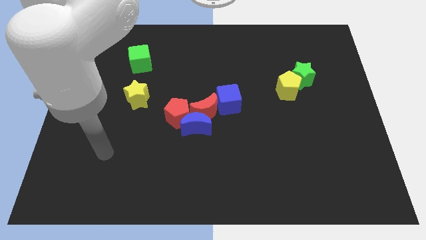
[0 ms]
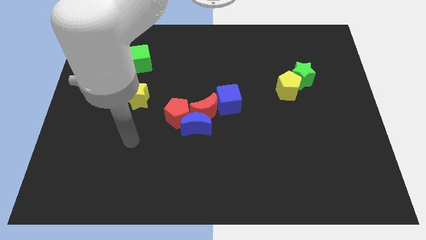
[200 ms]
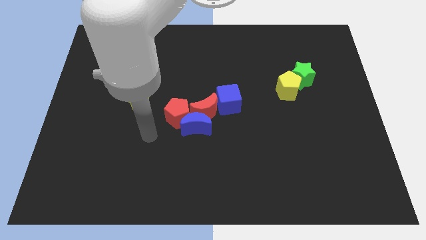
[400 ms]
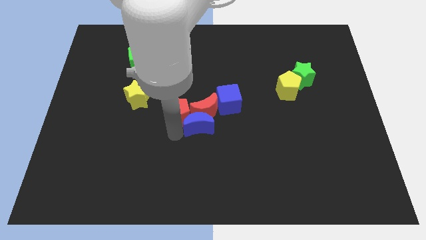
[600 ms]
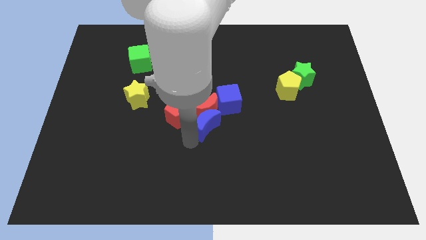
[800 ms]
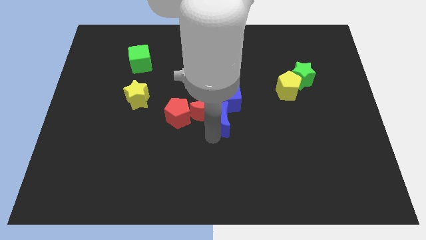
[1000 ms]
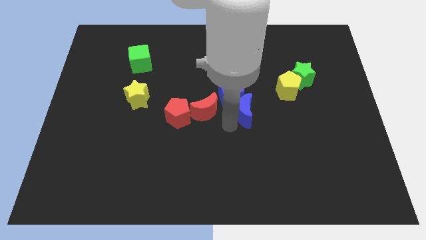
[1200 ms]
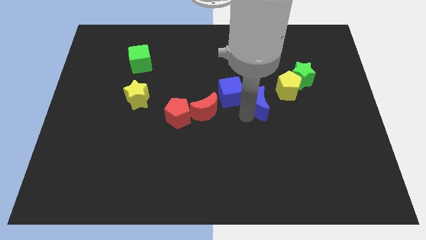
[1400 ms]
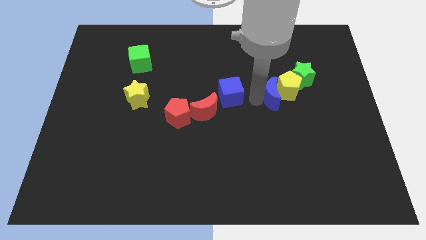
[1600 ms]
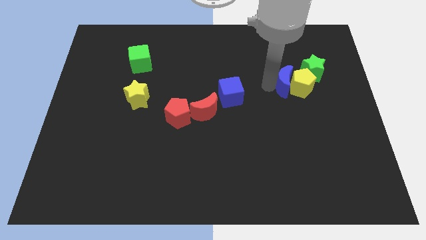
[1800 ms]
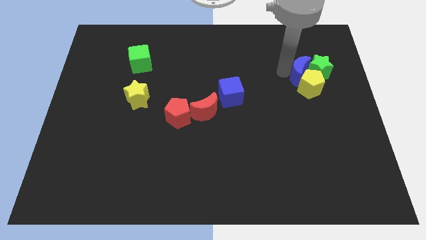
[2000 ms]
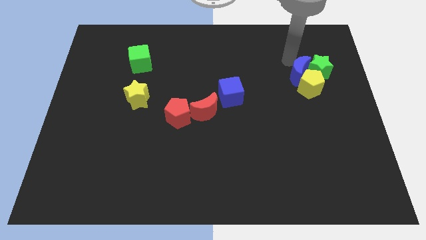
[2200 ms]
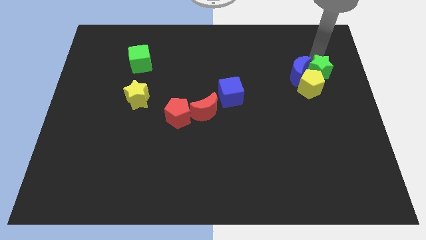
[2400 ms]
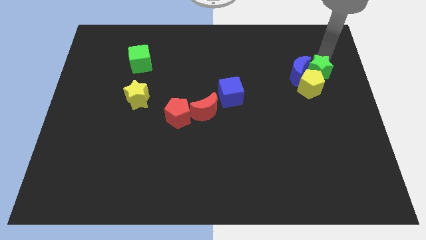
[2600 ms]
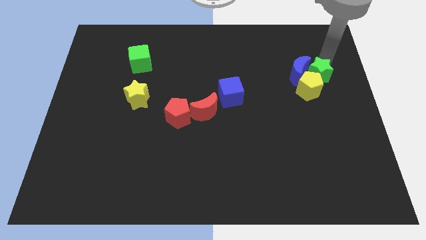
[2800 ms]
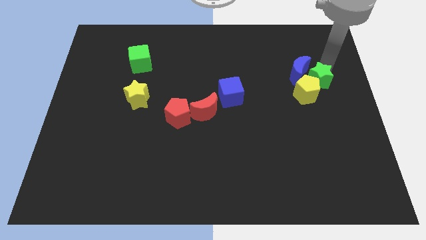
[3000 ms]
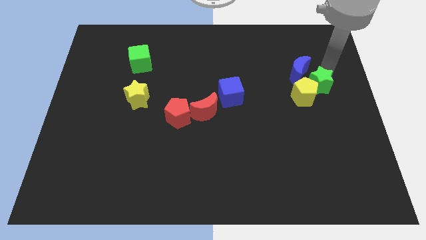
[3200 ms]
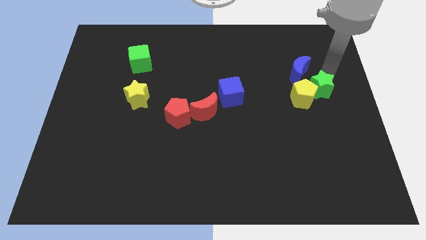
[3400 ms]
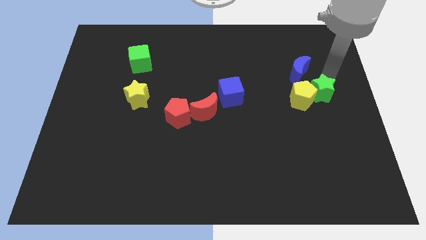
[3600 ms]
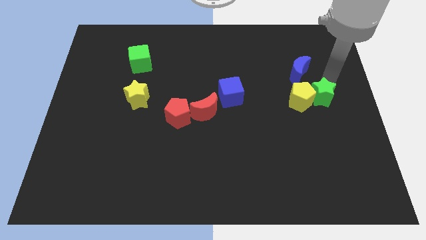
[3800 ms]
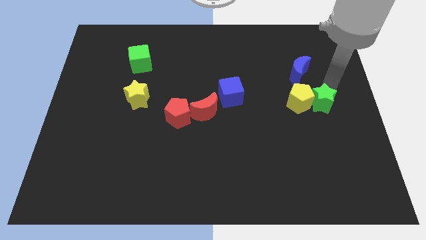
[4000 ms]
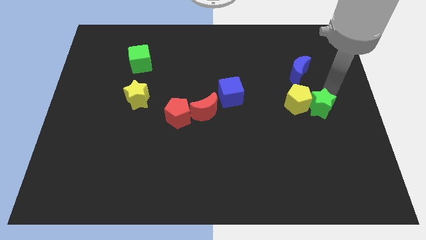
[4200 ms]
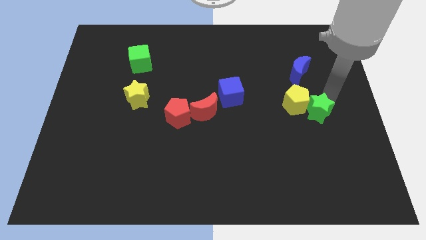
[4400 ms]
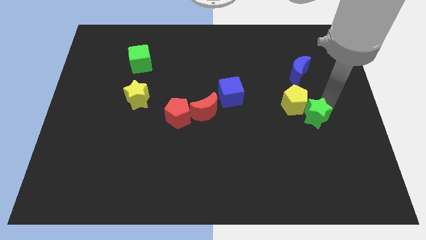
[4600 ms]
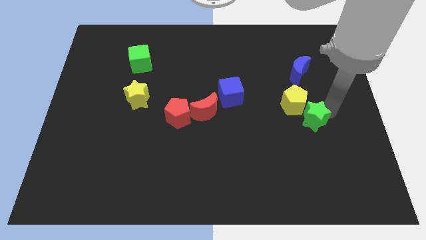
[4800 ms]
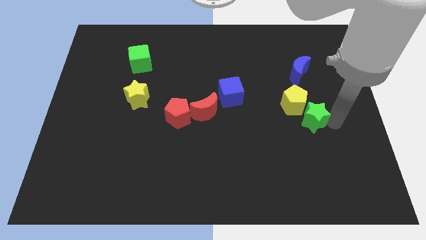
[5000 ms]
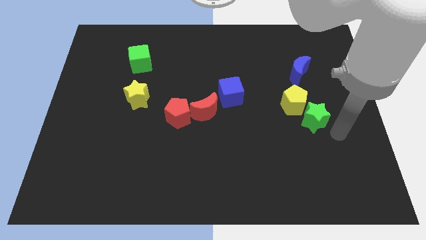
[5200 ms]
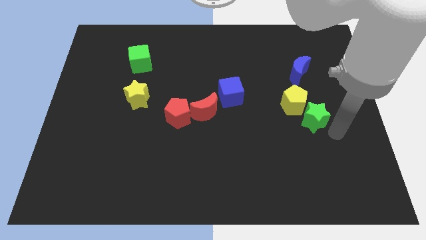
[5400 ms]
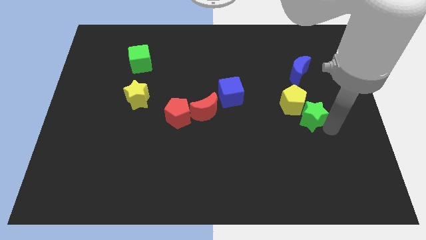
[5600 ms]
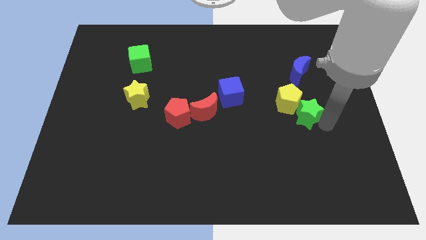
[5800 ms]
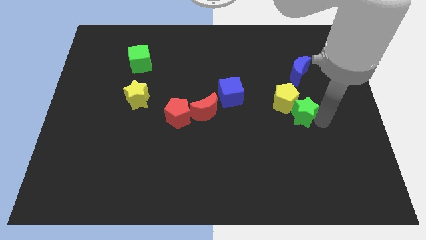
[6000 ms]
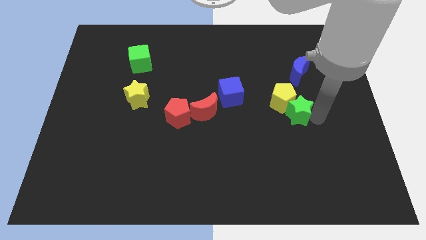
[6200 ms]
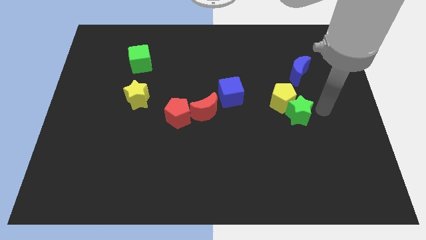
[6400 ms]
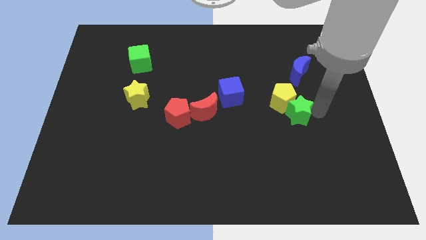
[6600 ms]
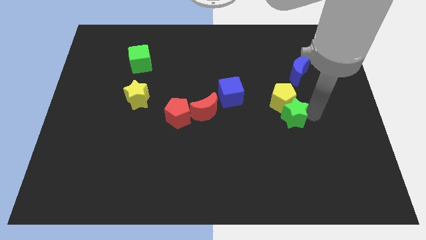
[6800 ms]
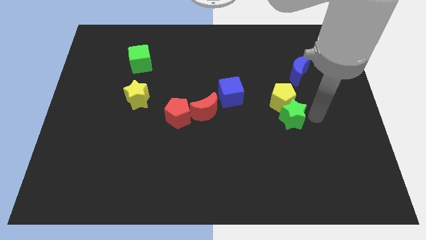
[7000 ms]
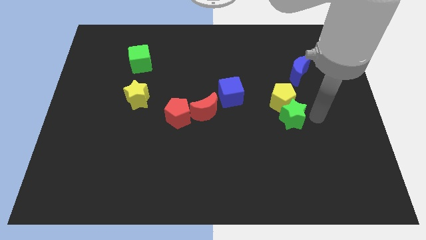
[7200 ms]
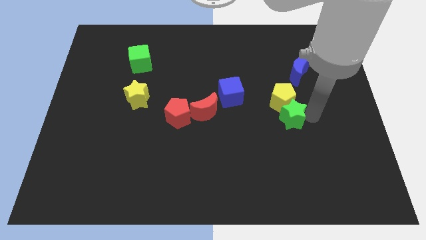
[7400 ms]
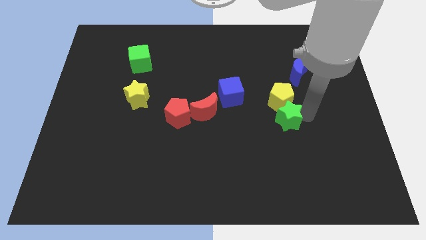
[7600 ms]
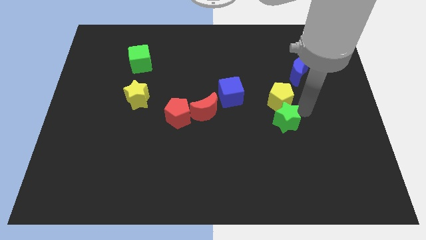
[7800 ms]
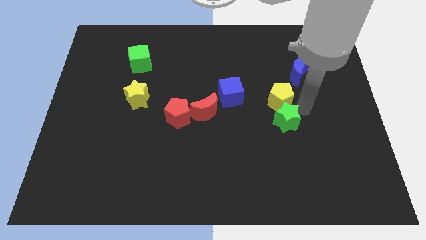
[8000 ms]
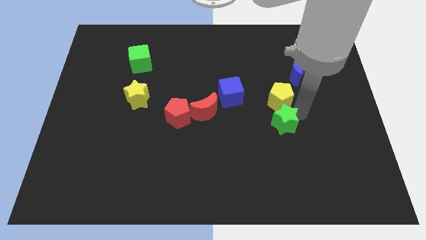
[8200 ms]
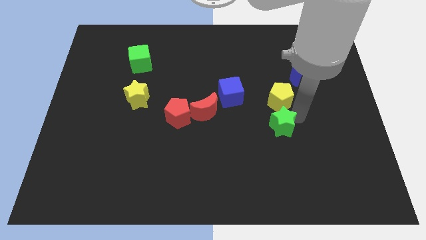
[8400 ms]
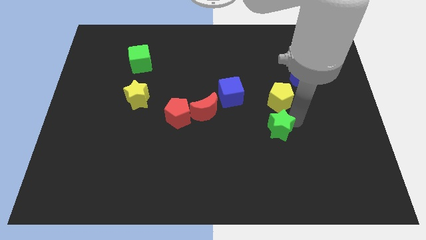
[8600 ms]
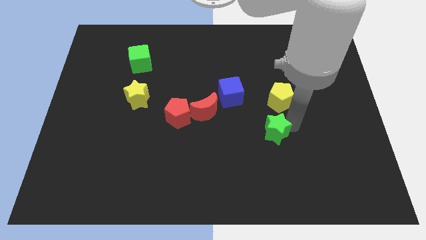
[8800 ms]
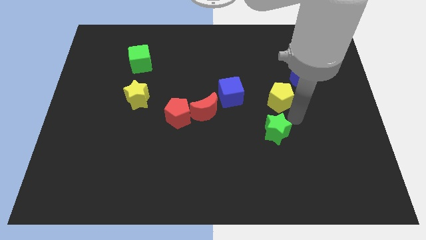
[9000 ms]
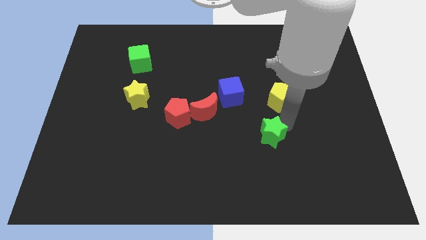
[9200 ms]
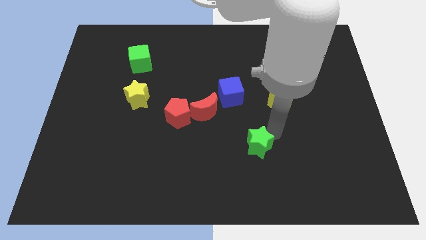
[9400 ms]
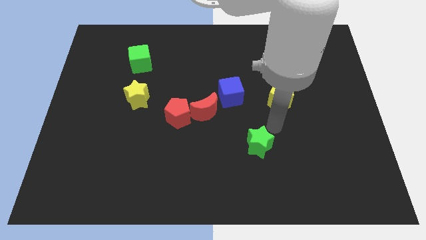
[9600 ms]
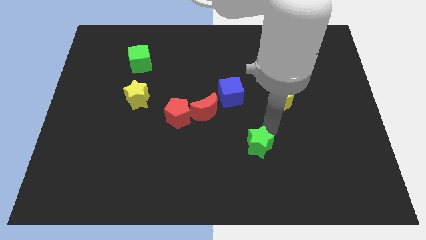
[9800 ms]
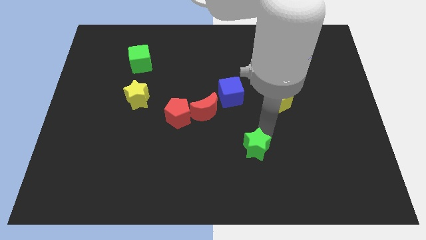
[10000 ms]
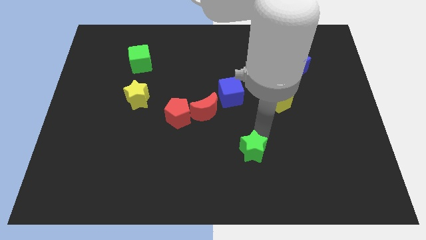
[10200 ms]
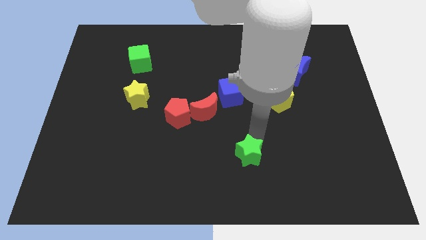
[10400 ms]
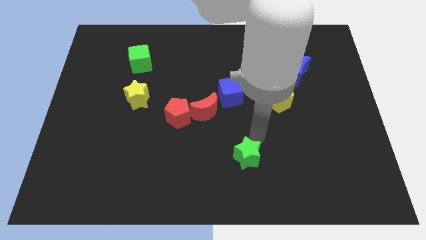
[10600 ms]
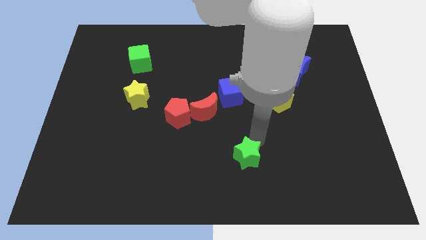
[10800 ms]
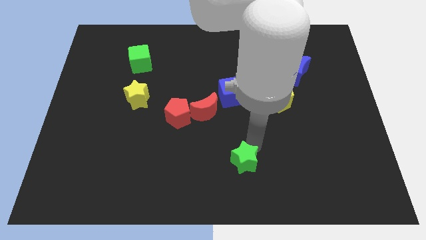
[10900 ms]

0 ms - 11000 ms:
put the green star to the bottom side

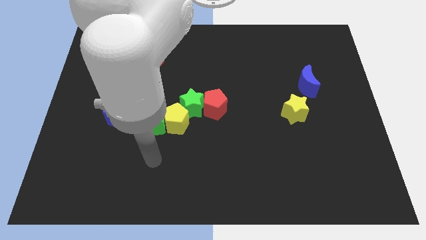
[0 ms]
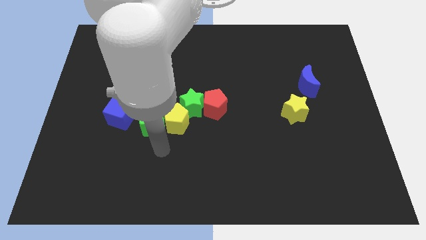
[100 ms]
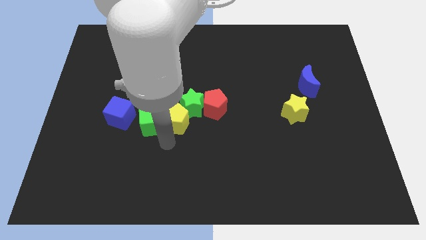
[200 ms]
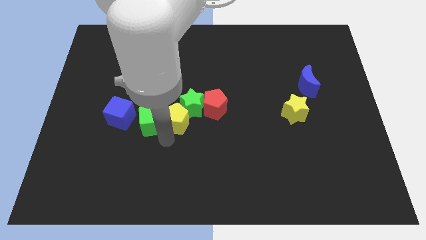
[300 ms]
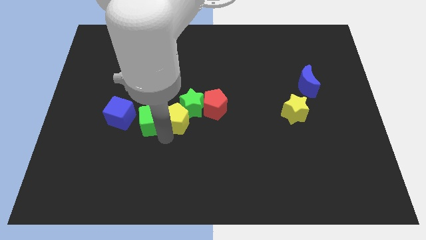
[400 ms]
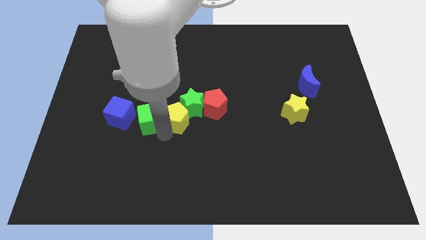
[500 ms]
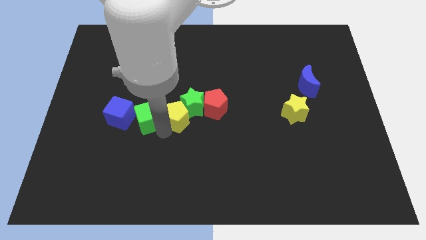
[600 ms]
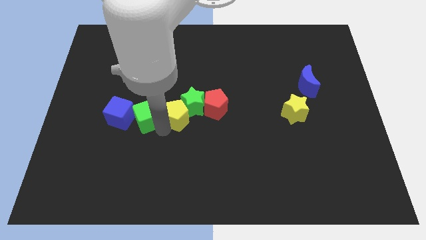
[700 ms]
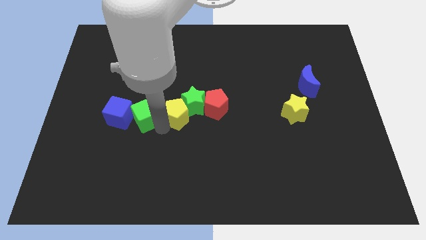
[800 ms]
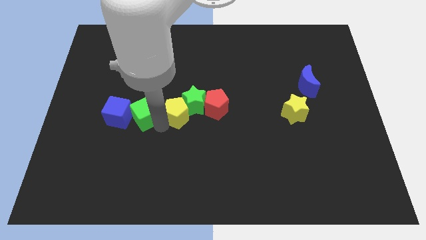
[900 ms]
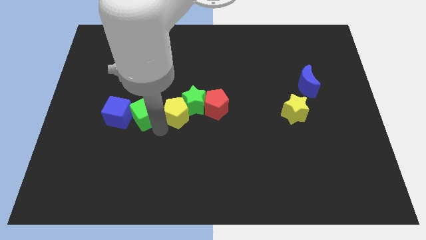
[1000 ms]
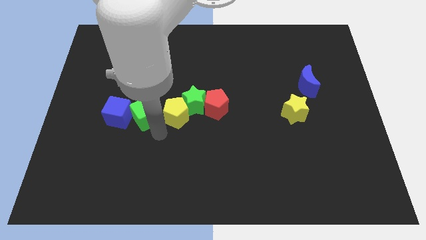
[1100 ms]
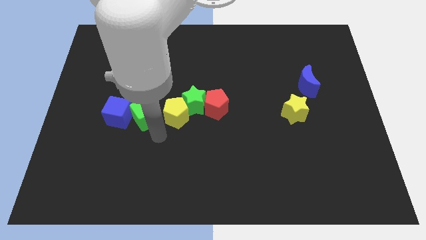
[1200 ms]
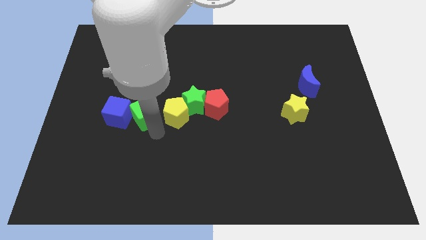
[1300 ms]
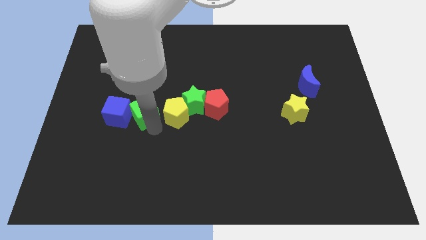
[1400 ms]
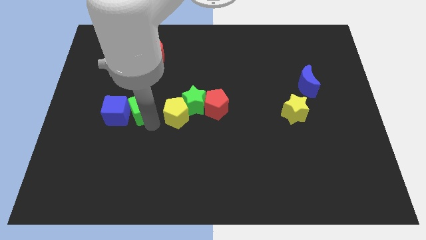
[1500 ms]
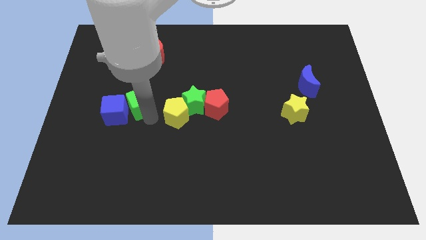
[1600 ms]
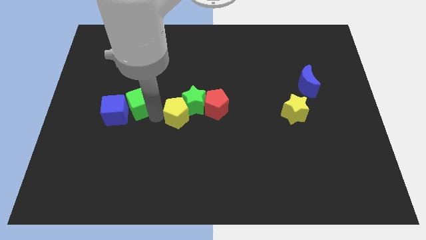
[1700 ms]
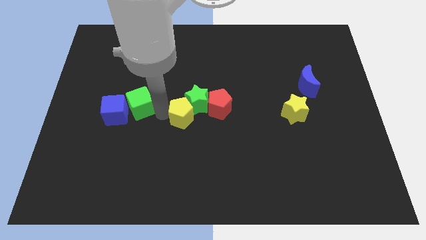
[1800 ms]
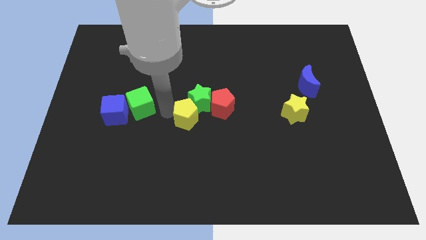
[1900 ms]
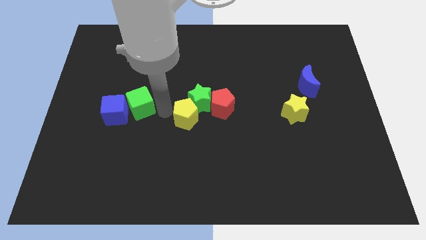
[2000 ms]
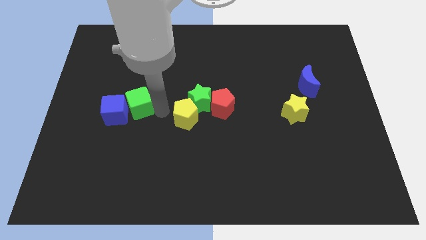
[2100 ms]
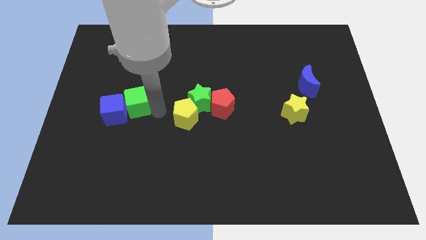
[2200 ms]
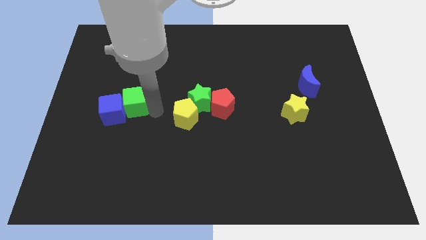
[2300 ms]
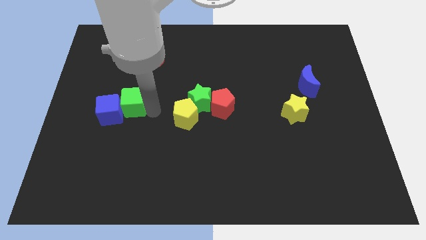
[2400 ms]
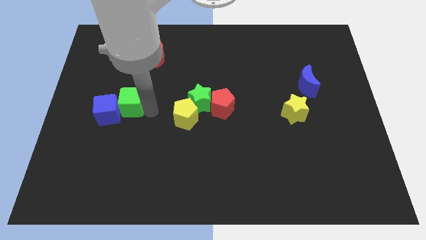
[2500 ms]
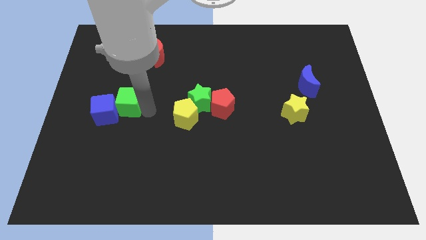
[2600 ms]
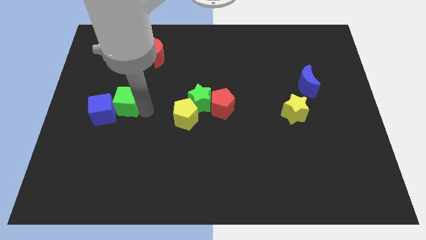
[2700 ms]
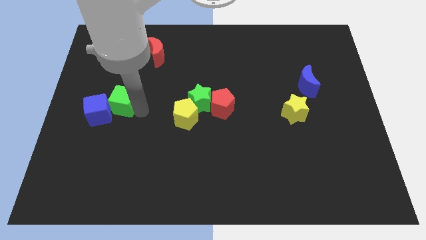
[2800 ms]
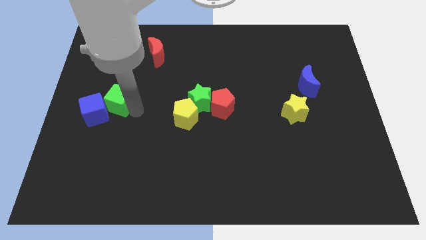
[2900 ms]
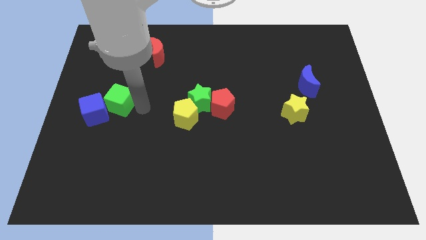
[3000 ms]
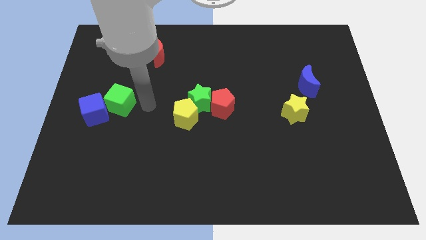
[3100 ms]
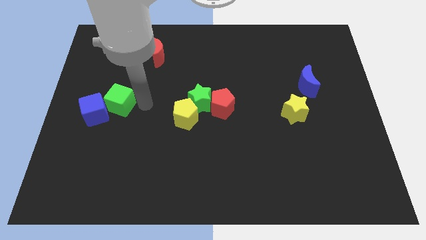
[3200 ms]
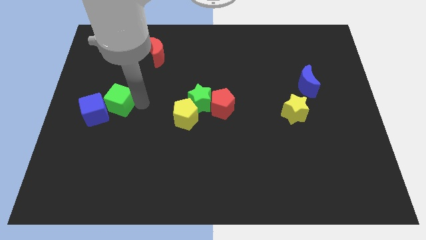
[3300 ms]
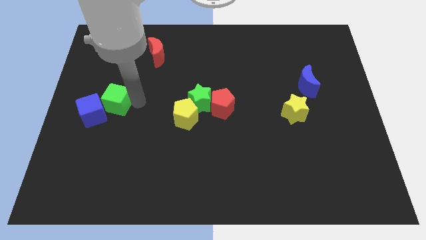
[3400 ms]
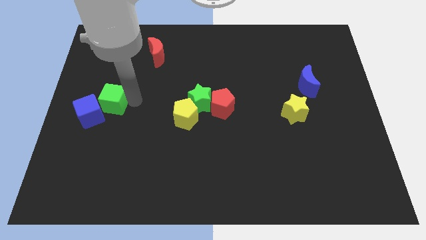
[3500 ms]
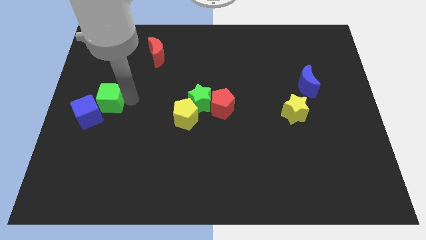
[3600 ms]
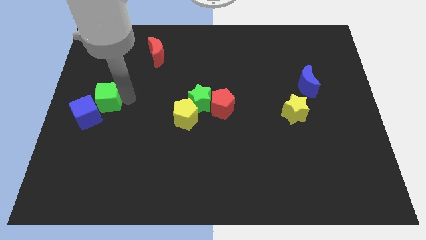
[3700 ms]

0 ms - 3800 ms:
push the green cube to the left side
